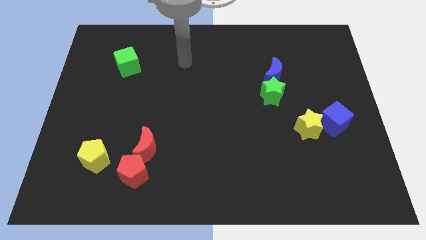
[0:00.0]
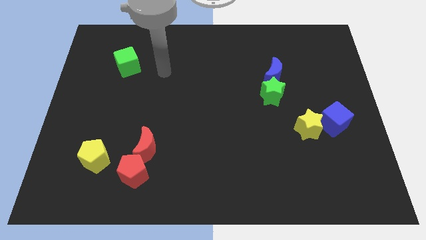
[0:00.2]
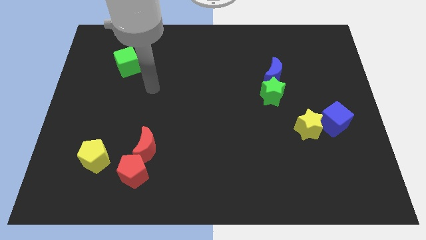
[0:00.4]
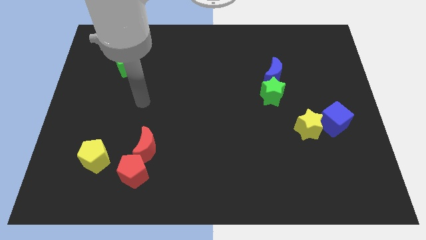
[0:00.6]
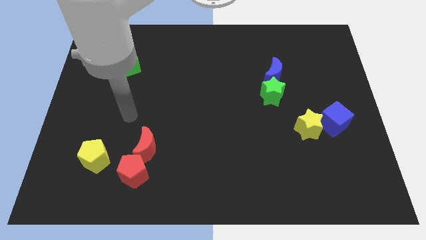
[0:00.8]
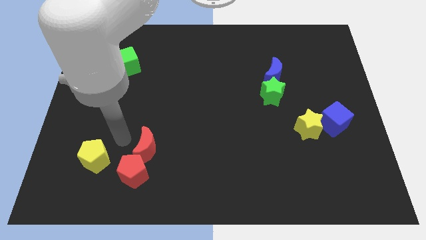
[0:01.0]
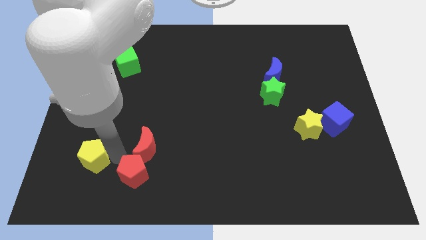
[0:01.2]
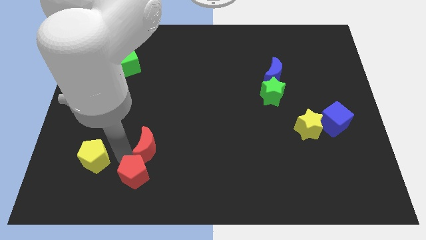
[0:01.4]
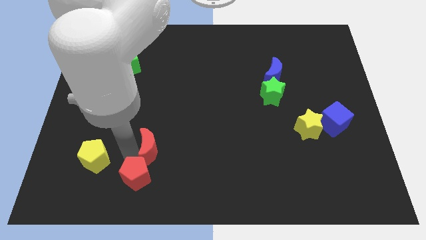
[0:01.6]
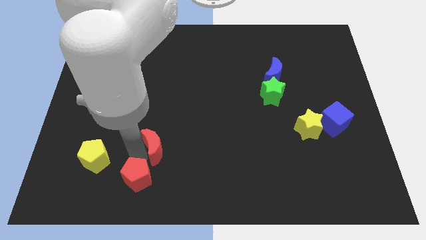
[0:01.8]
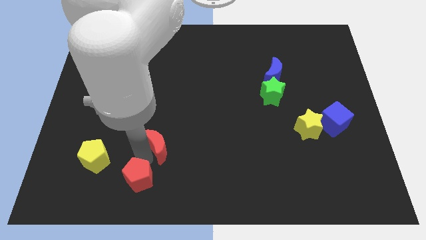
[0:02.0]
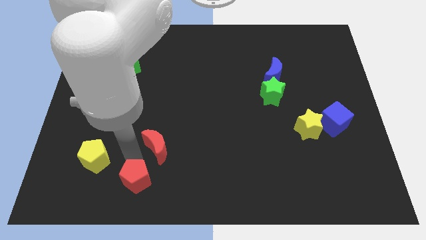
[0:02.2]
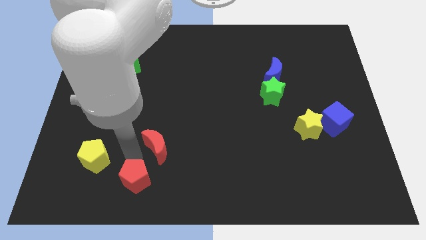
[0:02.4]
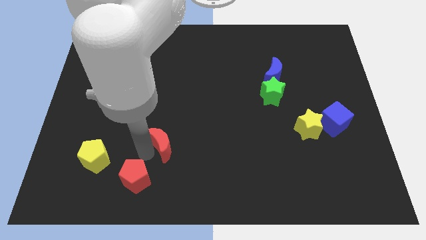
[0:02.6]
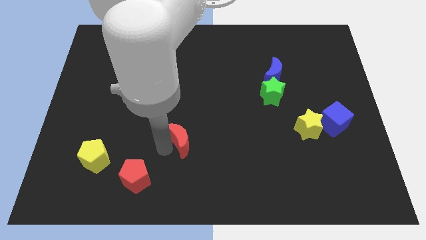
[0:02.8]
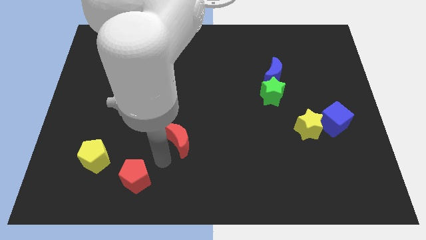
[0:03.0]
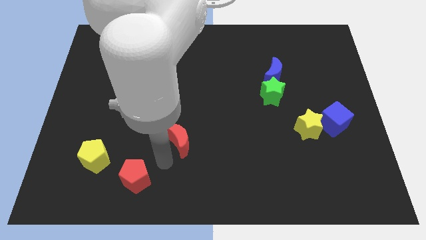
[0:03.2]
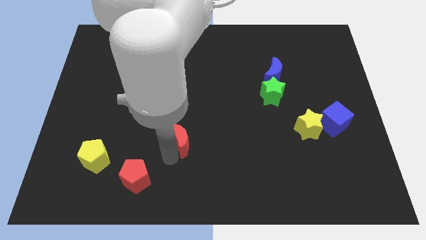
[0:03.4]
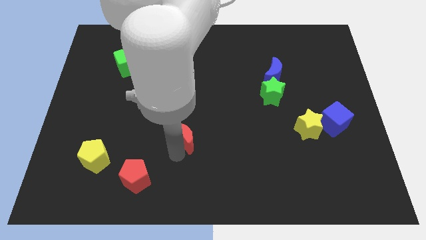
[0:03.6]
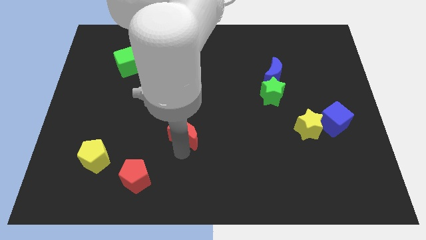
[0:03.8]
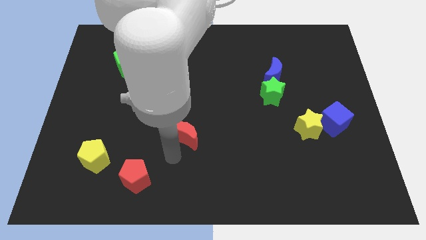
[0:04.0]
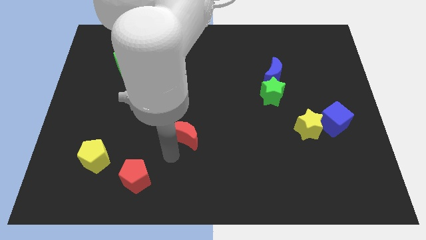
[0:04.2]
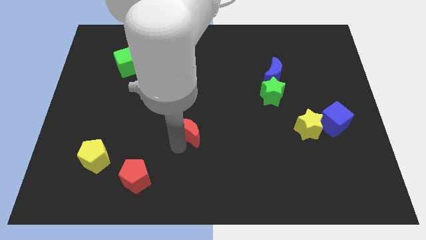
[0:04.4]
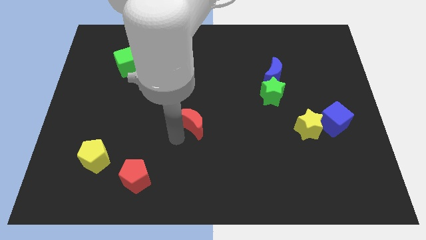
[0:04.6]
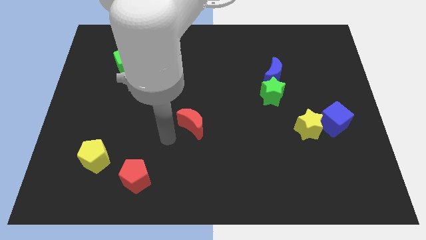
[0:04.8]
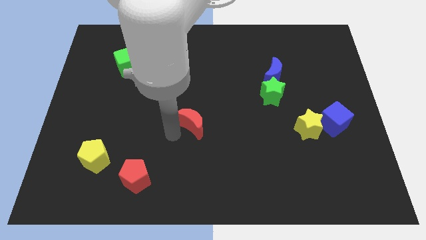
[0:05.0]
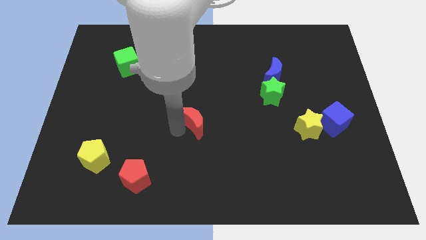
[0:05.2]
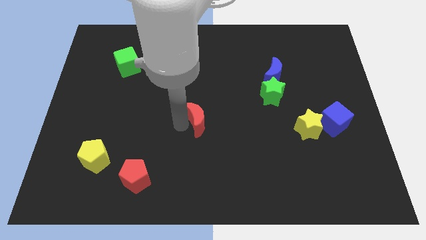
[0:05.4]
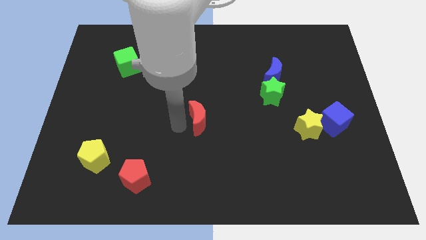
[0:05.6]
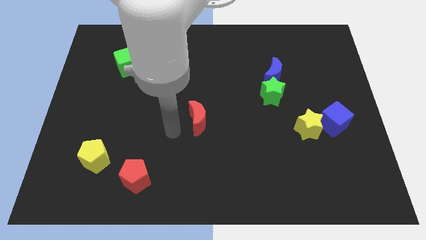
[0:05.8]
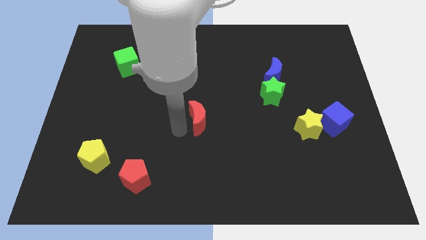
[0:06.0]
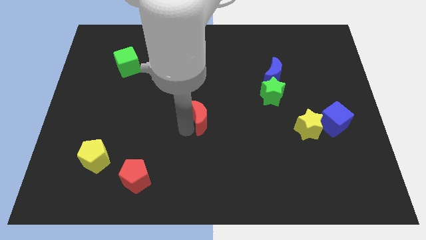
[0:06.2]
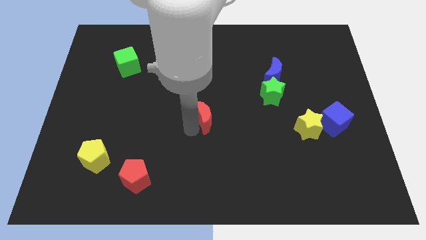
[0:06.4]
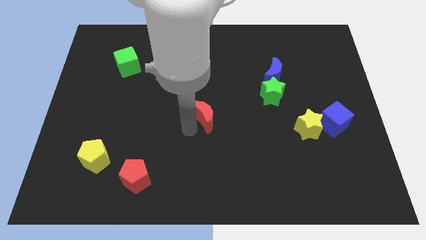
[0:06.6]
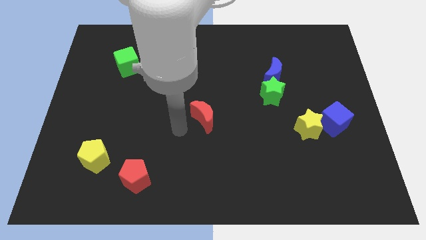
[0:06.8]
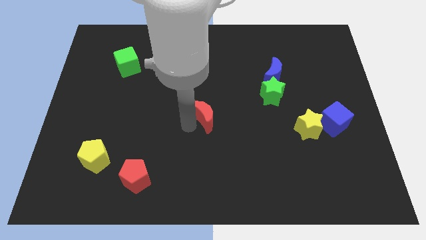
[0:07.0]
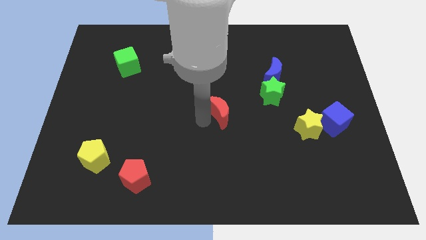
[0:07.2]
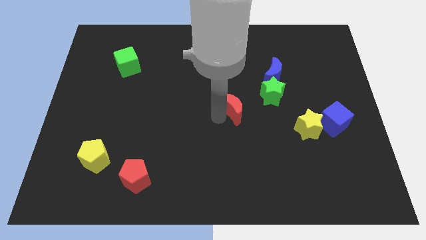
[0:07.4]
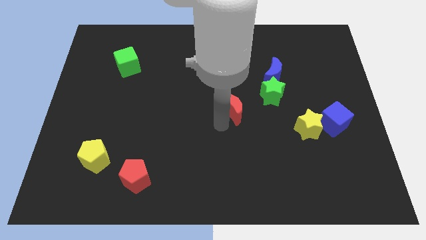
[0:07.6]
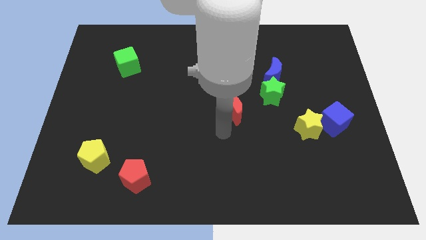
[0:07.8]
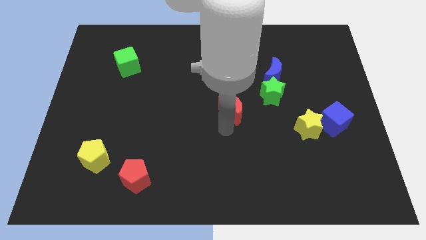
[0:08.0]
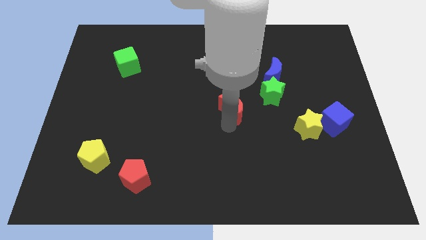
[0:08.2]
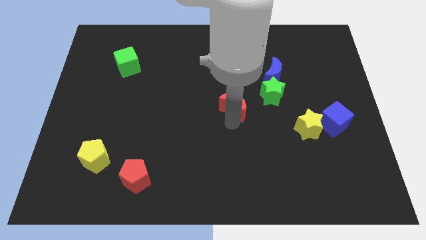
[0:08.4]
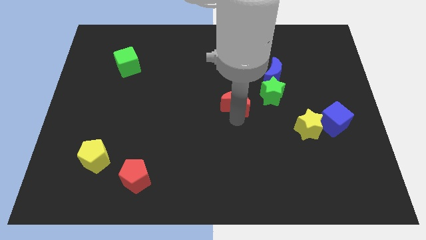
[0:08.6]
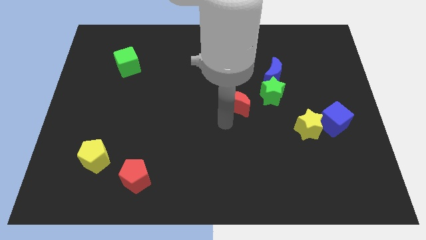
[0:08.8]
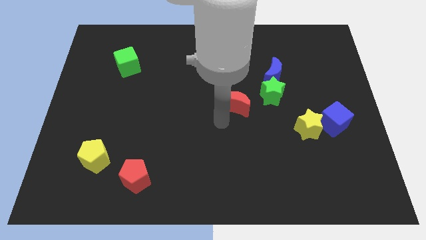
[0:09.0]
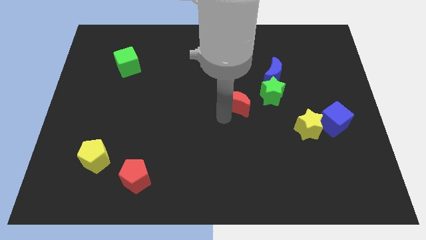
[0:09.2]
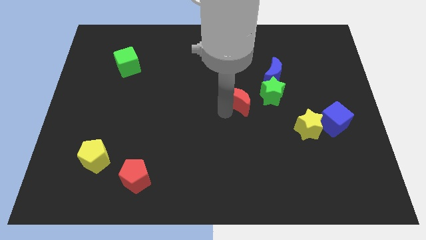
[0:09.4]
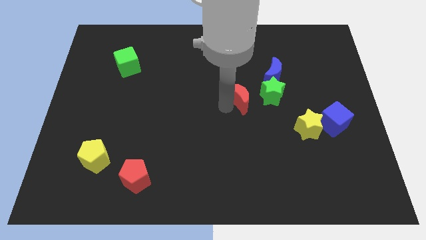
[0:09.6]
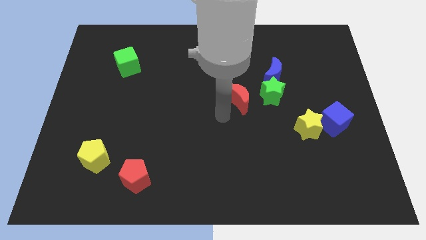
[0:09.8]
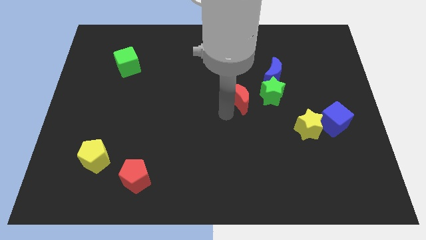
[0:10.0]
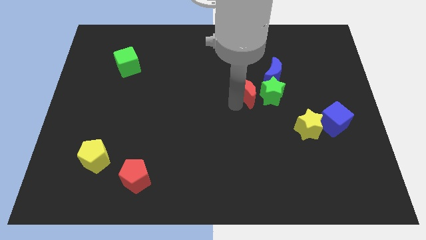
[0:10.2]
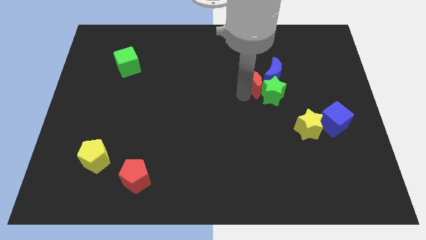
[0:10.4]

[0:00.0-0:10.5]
put the red moon towards the blue moon

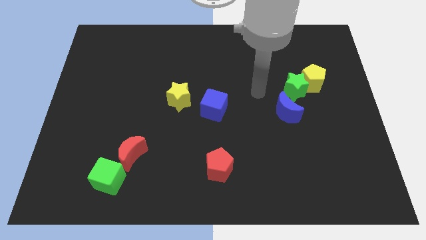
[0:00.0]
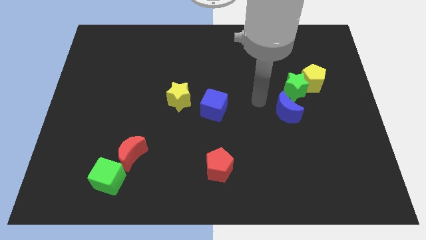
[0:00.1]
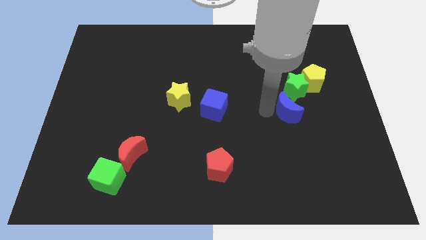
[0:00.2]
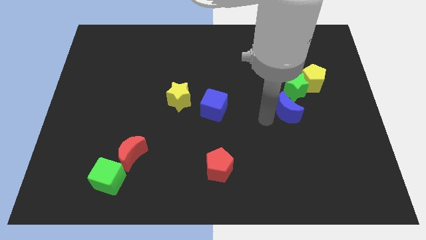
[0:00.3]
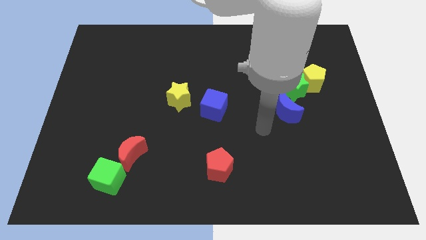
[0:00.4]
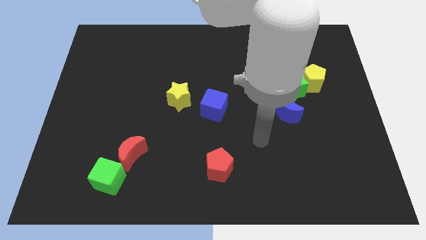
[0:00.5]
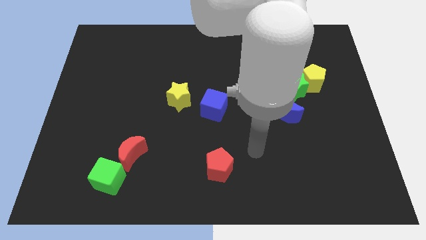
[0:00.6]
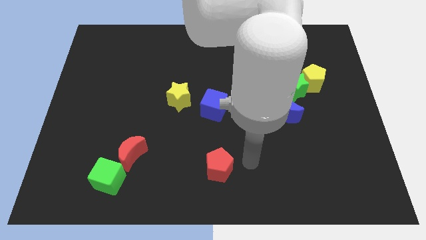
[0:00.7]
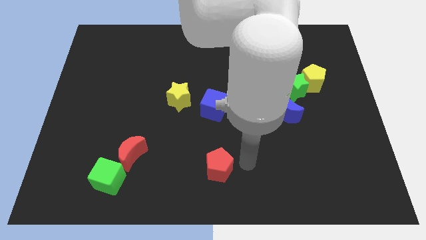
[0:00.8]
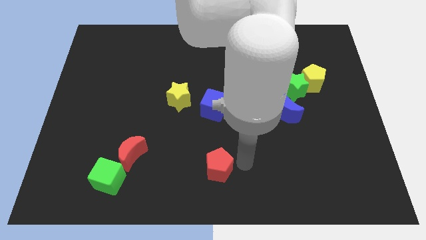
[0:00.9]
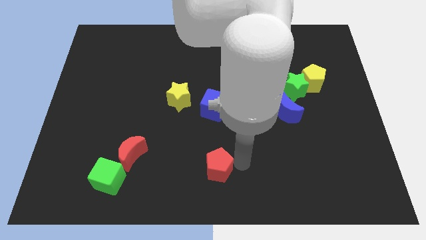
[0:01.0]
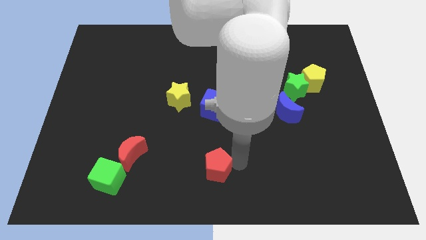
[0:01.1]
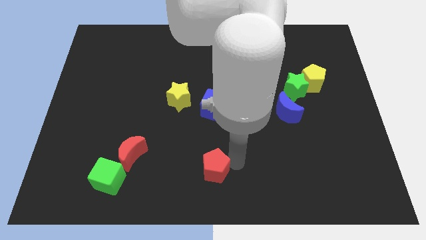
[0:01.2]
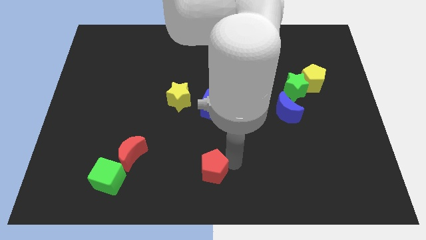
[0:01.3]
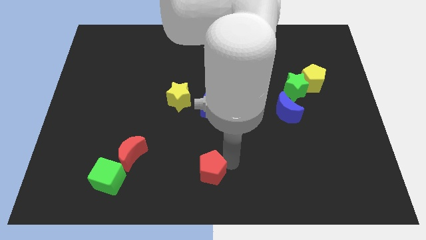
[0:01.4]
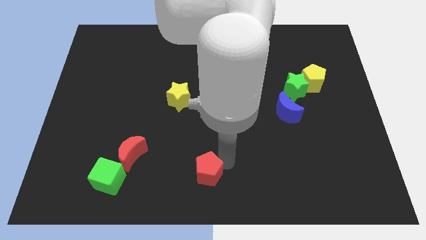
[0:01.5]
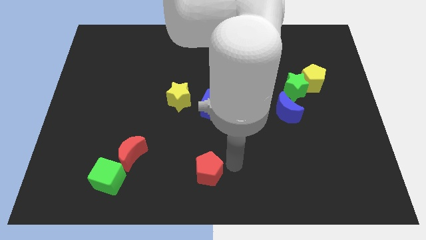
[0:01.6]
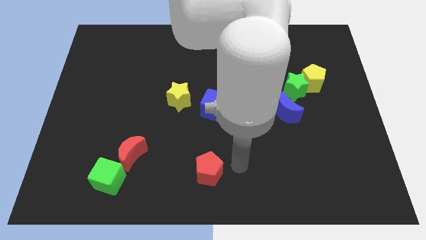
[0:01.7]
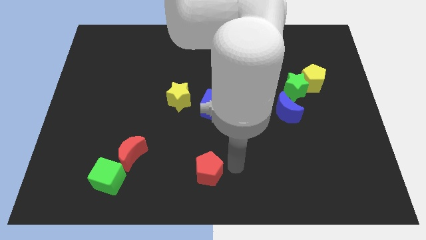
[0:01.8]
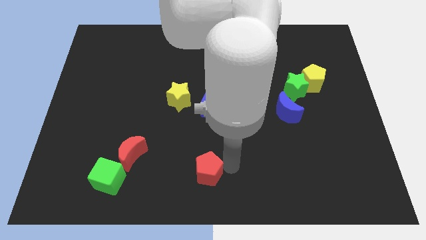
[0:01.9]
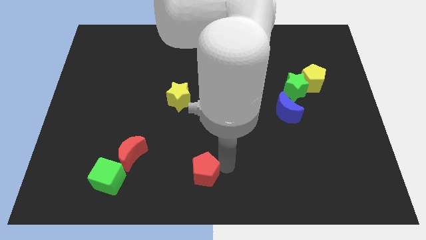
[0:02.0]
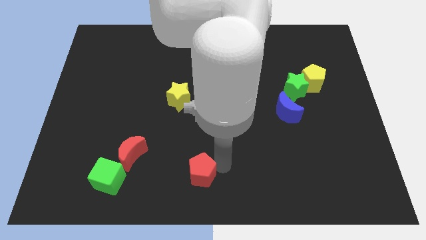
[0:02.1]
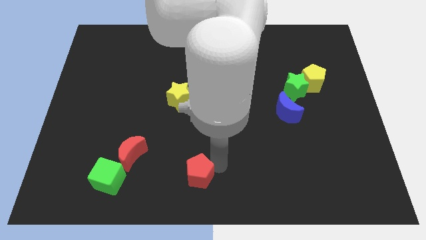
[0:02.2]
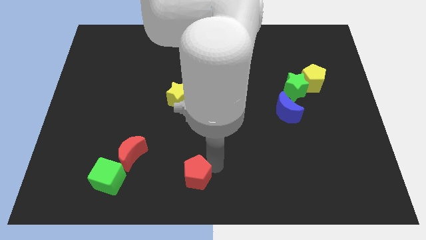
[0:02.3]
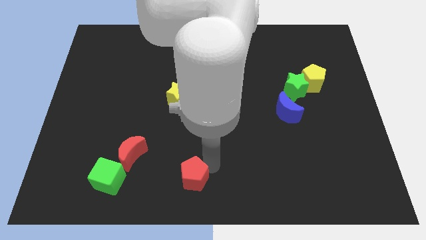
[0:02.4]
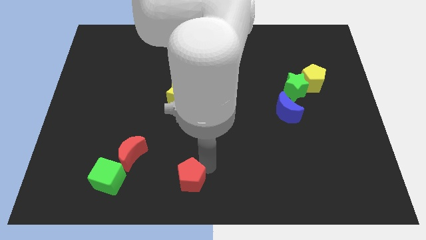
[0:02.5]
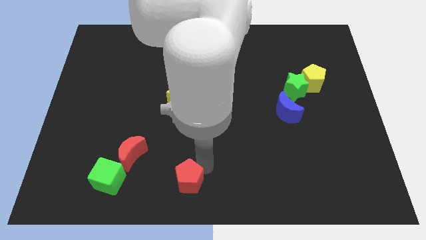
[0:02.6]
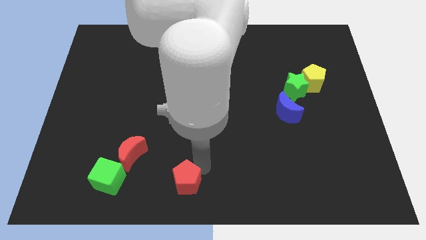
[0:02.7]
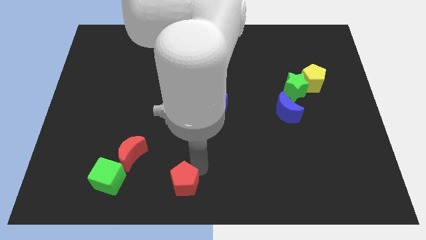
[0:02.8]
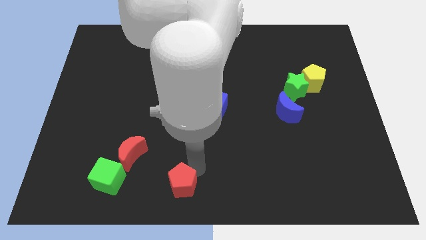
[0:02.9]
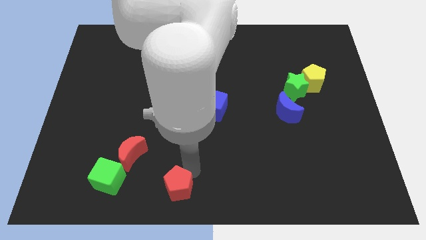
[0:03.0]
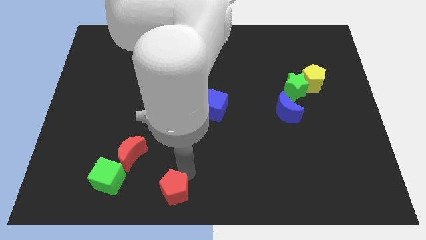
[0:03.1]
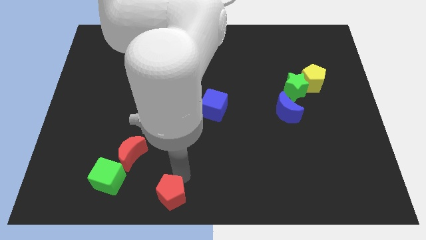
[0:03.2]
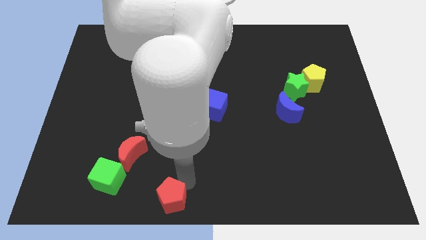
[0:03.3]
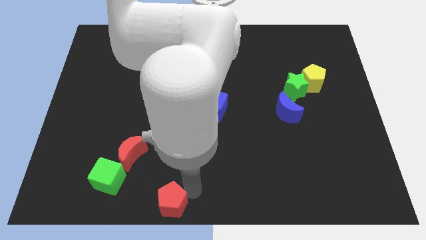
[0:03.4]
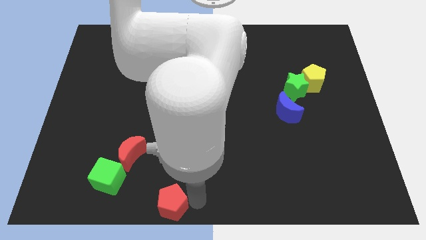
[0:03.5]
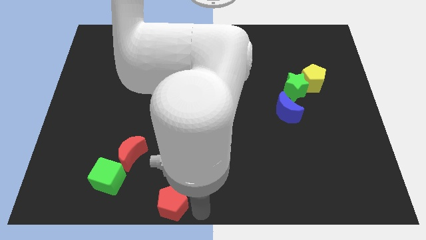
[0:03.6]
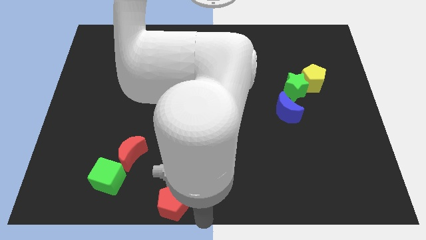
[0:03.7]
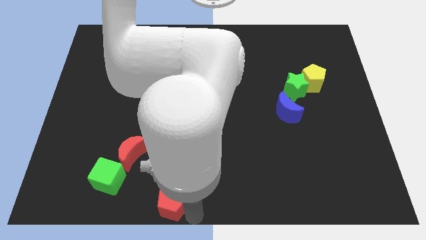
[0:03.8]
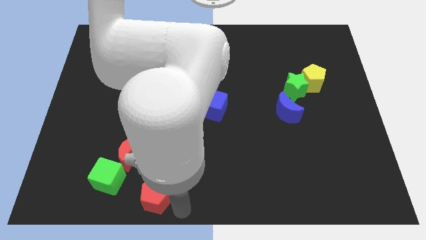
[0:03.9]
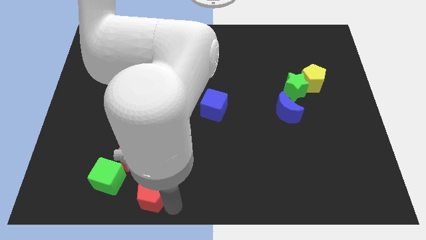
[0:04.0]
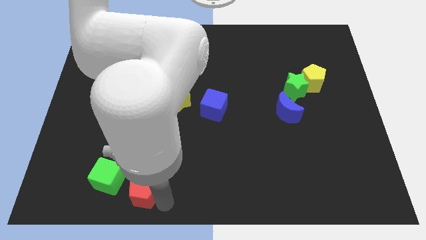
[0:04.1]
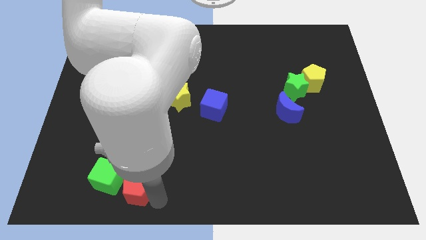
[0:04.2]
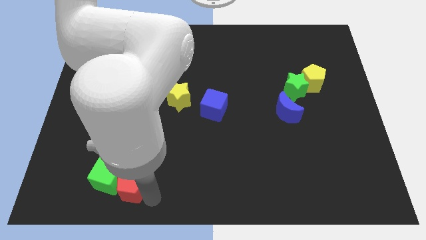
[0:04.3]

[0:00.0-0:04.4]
push the red pentagon close to the green cube
